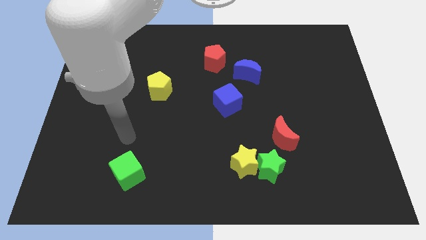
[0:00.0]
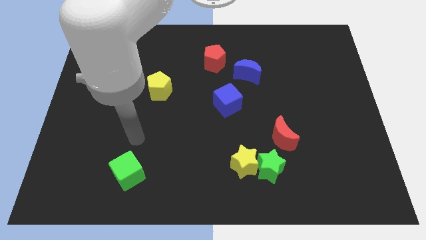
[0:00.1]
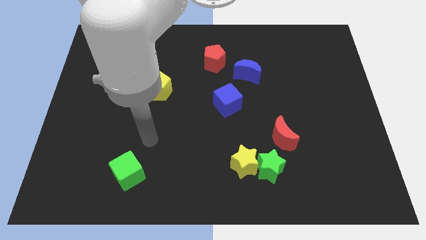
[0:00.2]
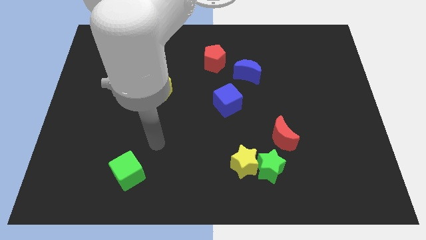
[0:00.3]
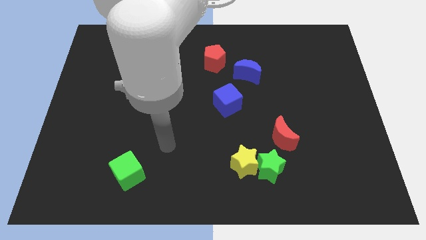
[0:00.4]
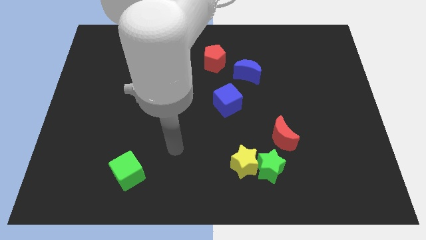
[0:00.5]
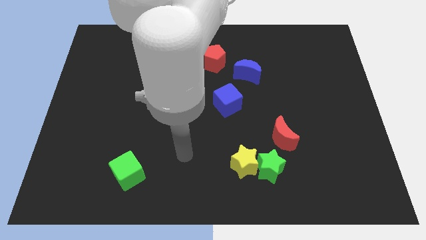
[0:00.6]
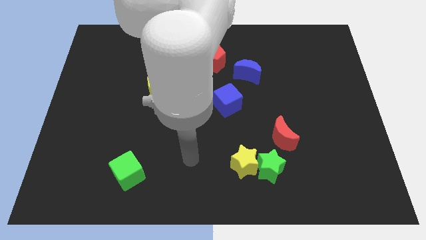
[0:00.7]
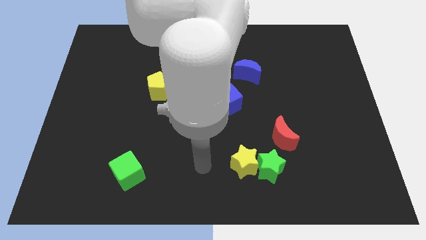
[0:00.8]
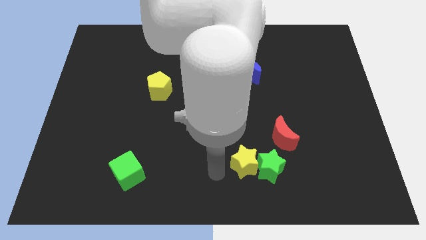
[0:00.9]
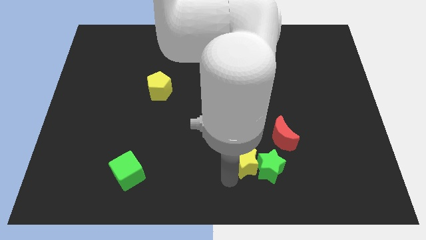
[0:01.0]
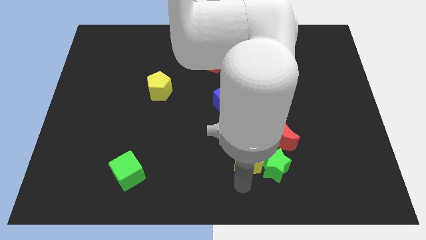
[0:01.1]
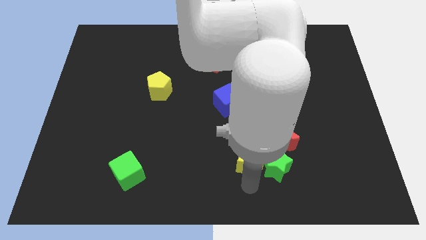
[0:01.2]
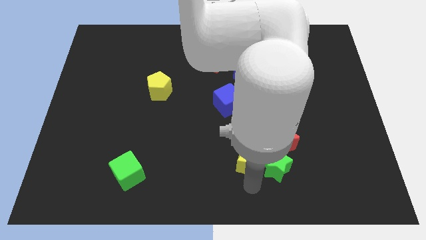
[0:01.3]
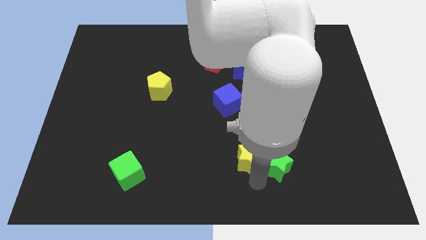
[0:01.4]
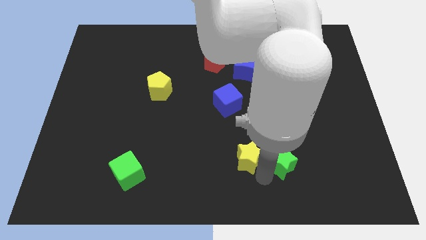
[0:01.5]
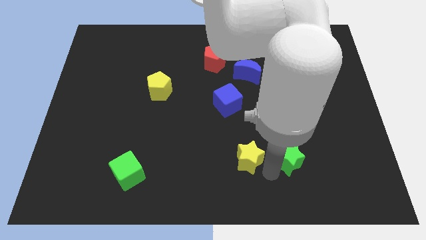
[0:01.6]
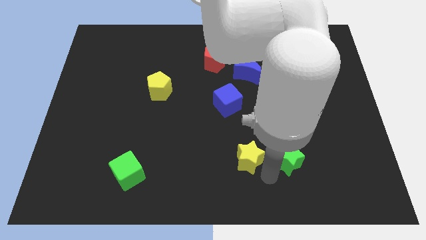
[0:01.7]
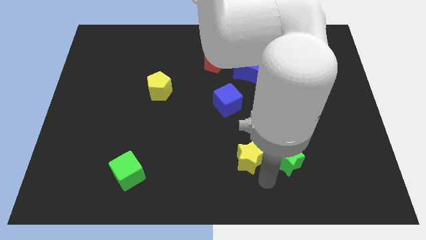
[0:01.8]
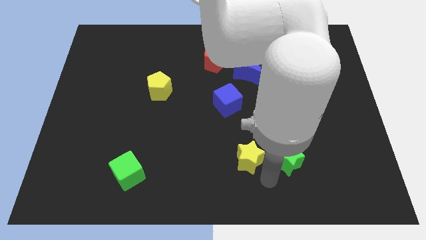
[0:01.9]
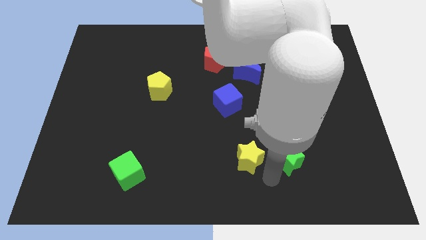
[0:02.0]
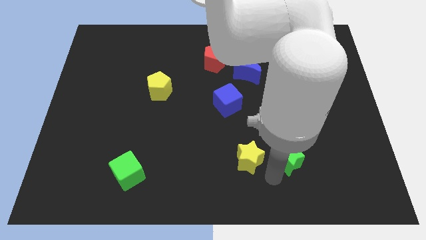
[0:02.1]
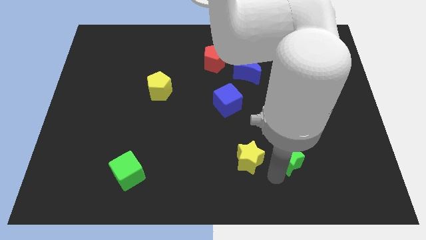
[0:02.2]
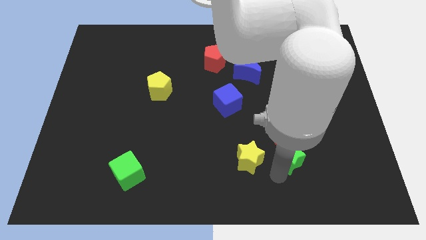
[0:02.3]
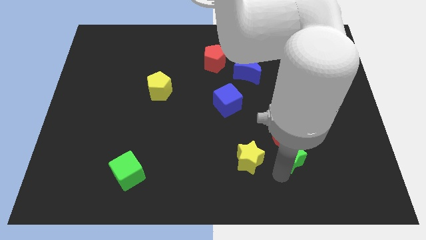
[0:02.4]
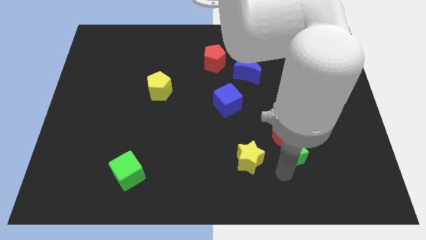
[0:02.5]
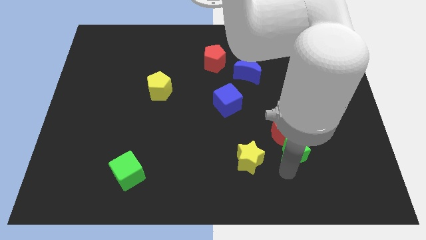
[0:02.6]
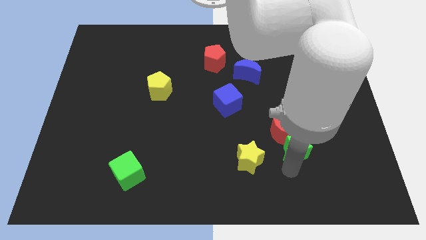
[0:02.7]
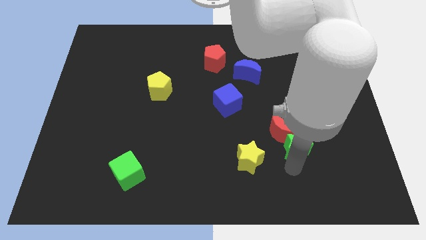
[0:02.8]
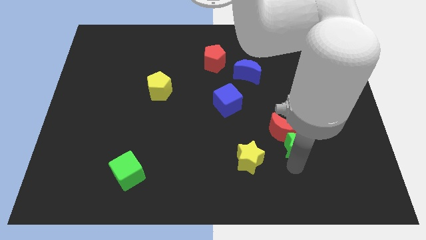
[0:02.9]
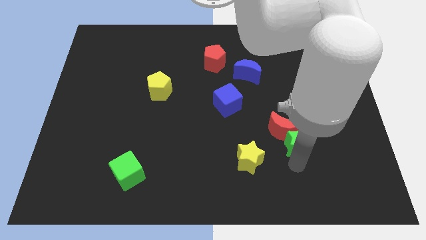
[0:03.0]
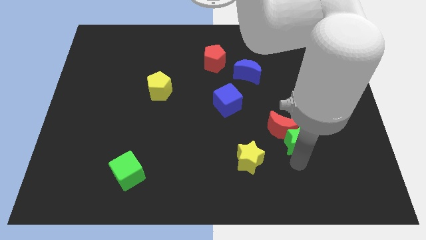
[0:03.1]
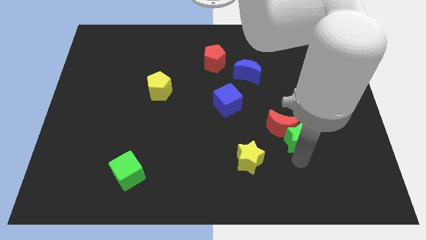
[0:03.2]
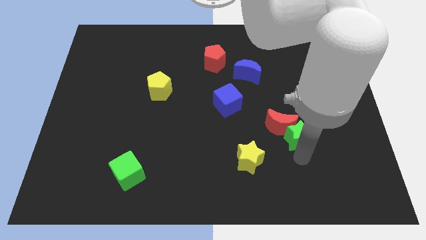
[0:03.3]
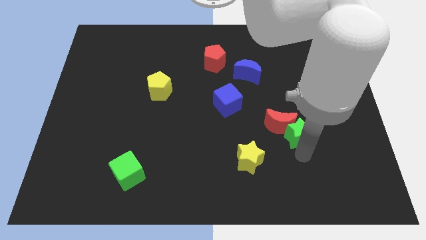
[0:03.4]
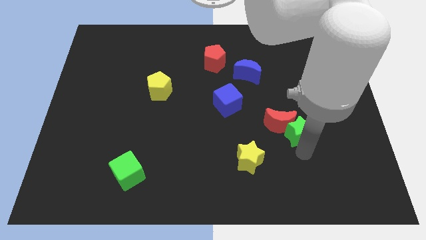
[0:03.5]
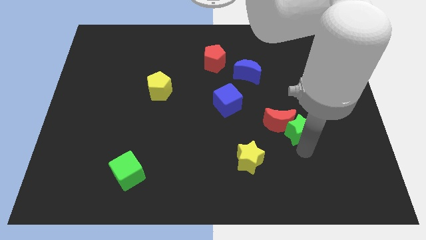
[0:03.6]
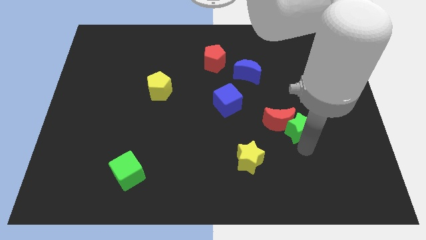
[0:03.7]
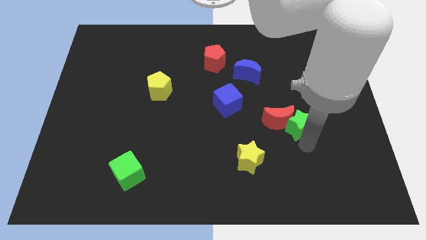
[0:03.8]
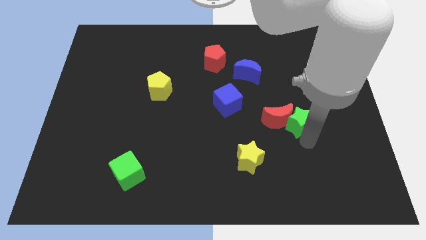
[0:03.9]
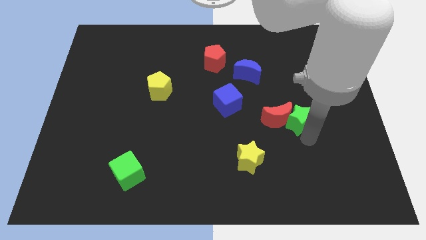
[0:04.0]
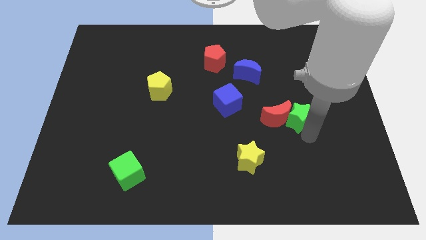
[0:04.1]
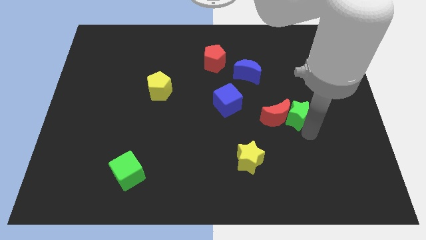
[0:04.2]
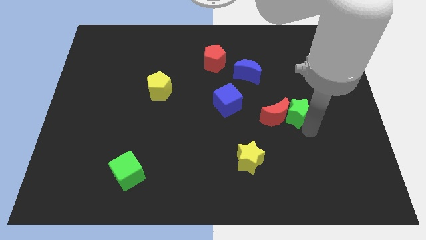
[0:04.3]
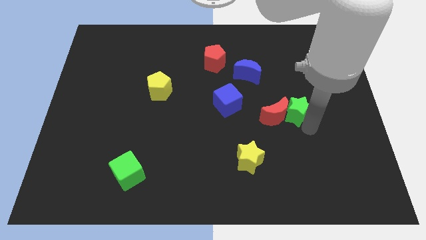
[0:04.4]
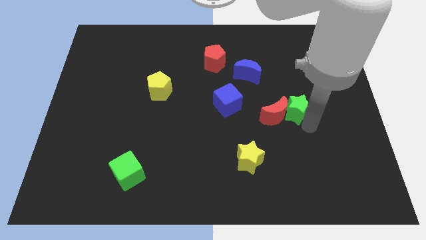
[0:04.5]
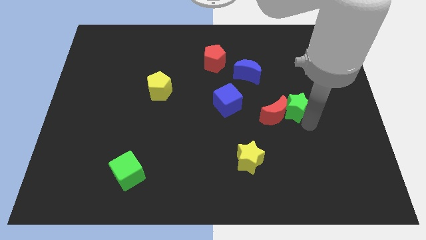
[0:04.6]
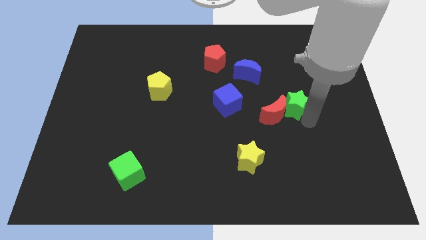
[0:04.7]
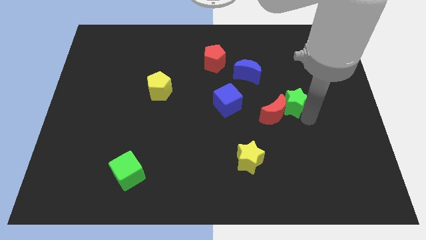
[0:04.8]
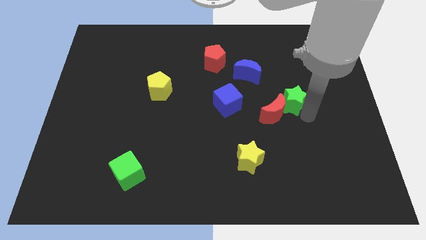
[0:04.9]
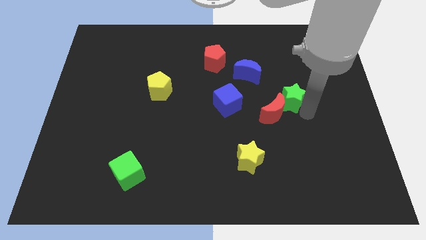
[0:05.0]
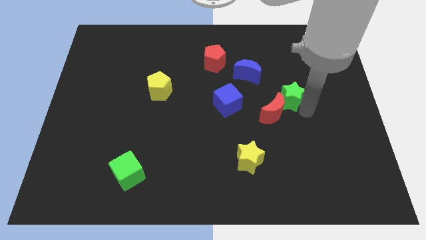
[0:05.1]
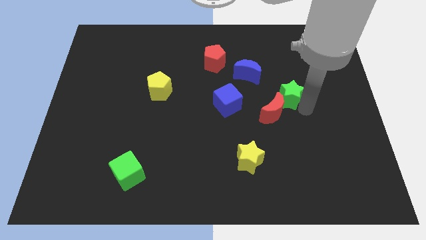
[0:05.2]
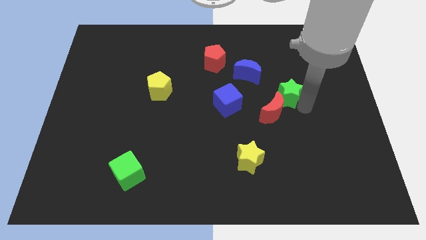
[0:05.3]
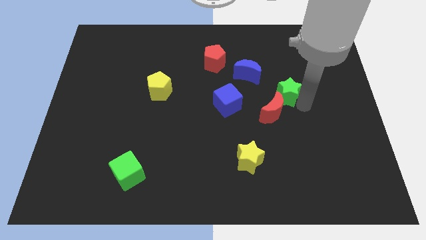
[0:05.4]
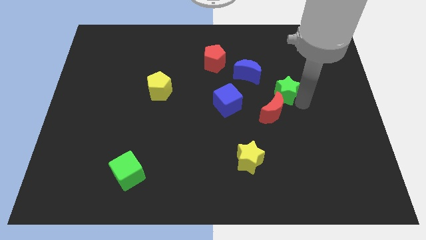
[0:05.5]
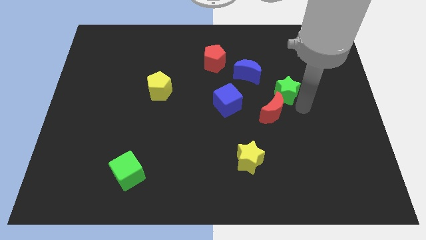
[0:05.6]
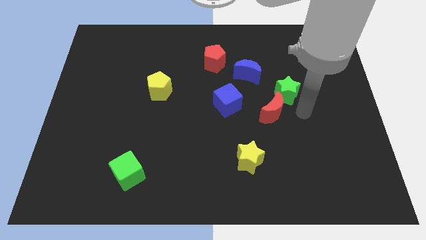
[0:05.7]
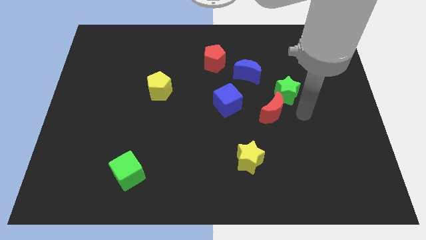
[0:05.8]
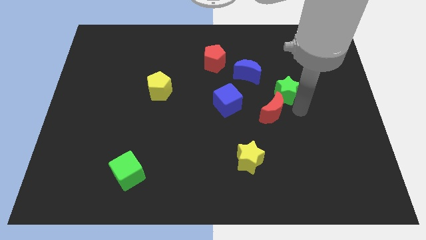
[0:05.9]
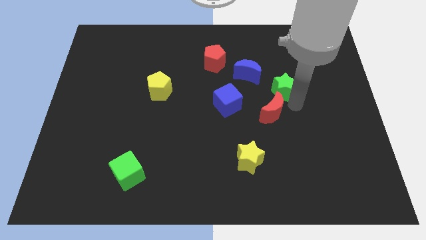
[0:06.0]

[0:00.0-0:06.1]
move the green star upwards

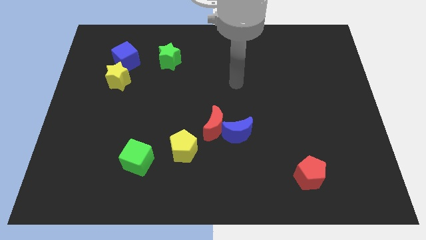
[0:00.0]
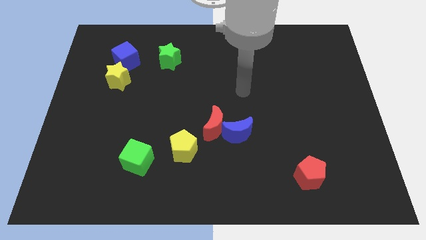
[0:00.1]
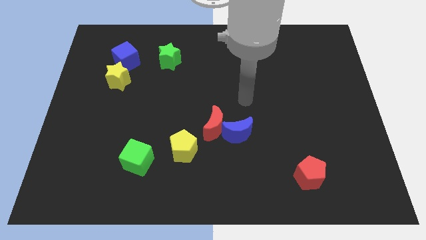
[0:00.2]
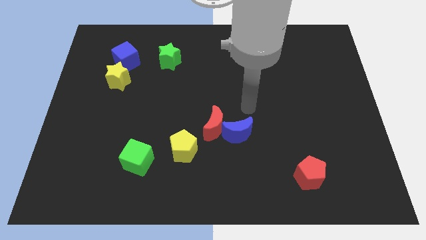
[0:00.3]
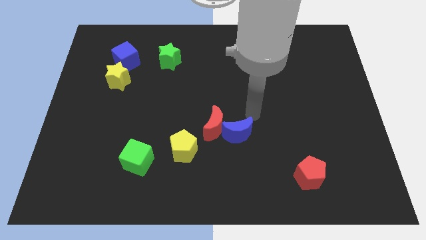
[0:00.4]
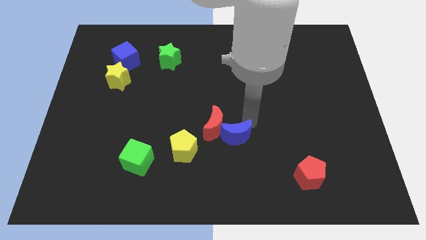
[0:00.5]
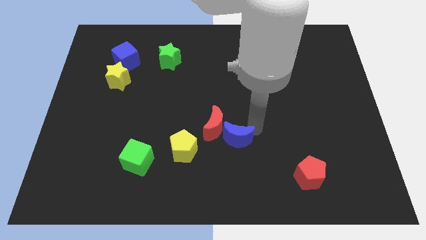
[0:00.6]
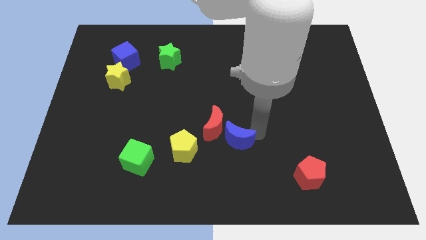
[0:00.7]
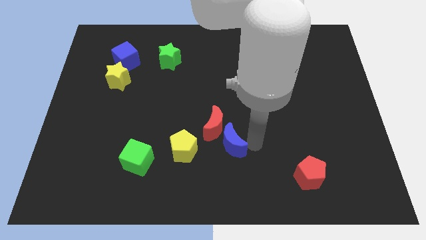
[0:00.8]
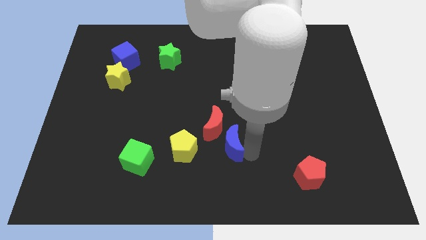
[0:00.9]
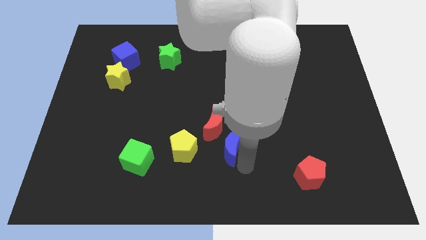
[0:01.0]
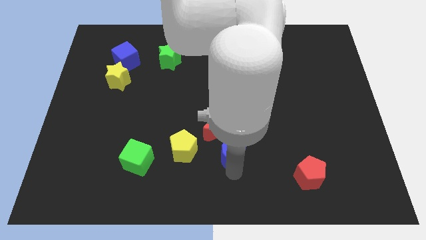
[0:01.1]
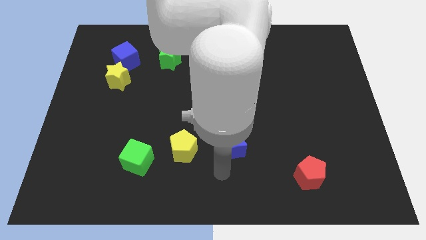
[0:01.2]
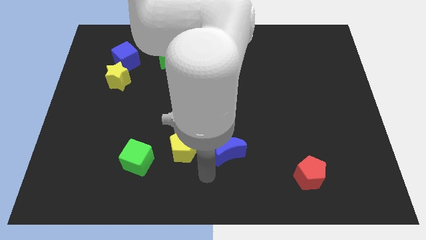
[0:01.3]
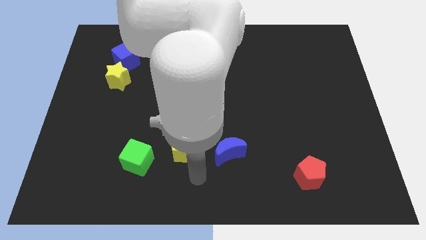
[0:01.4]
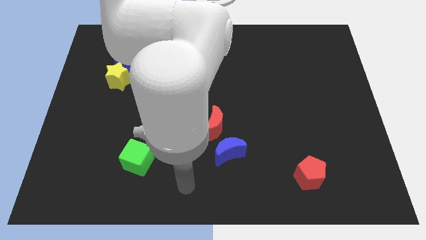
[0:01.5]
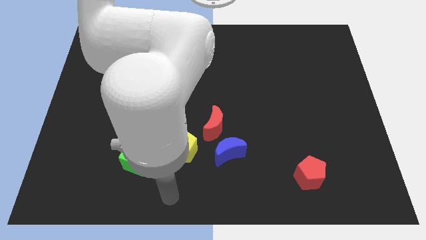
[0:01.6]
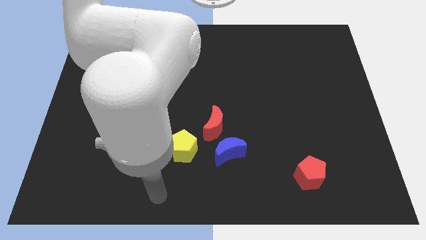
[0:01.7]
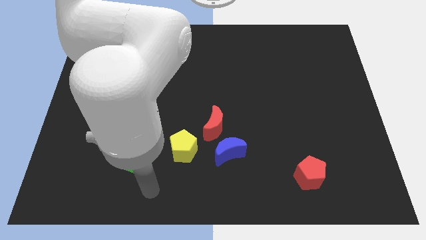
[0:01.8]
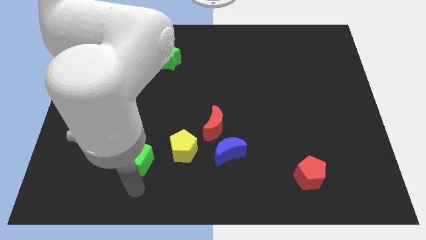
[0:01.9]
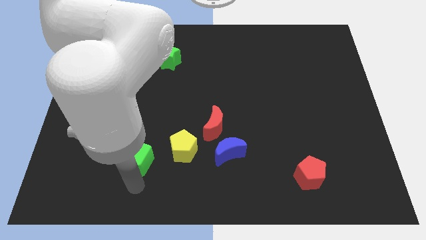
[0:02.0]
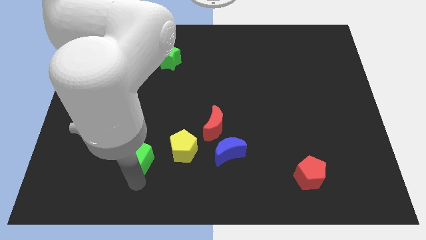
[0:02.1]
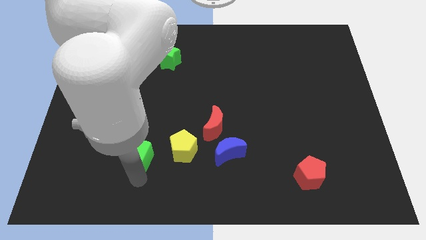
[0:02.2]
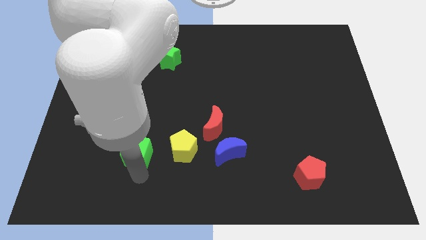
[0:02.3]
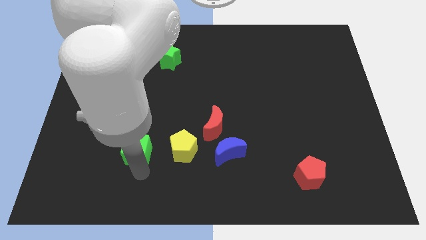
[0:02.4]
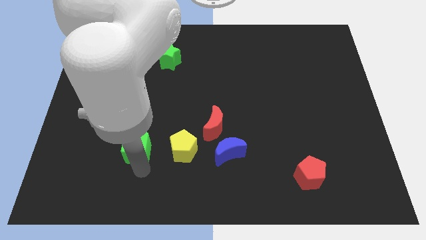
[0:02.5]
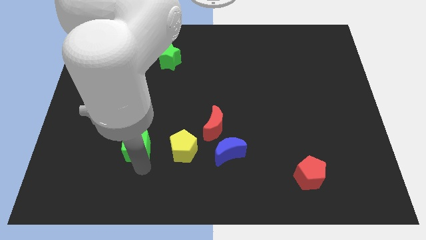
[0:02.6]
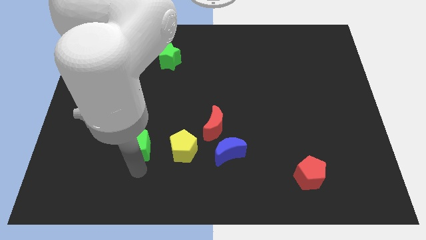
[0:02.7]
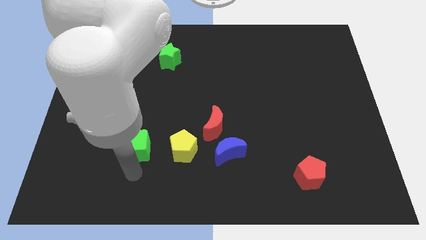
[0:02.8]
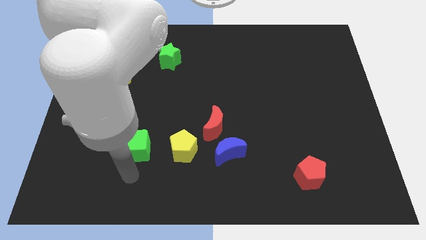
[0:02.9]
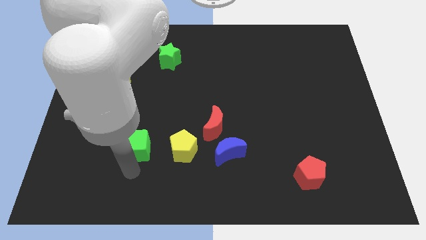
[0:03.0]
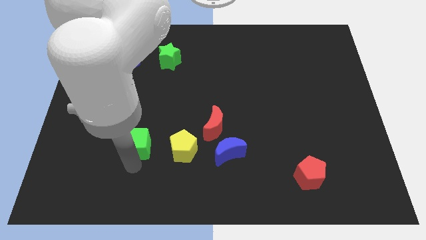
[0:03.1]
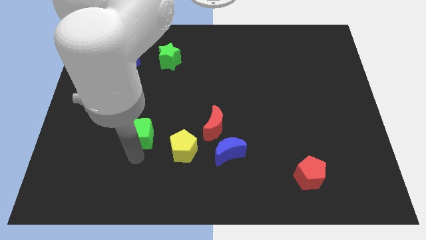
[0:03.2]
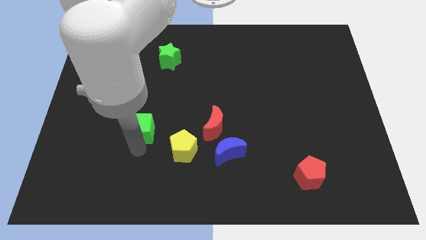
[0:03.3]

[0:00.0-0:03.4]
slide the green cube upwards a bit
